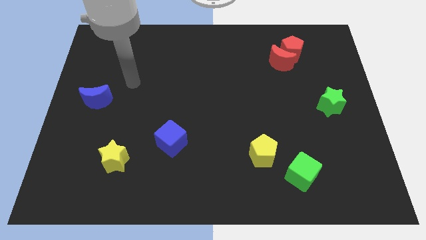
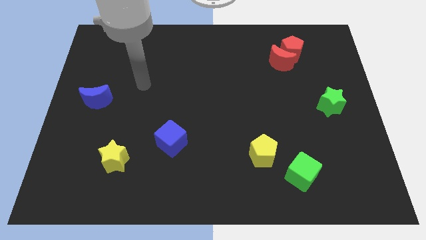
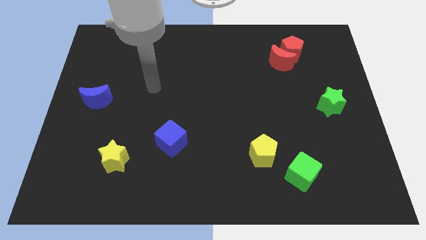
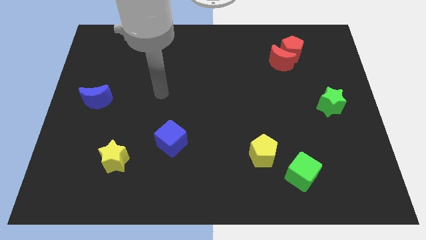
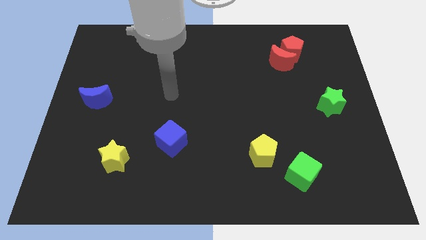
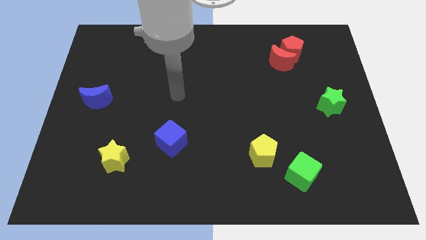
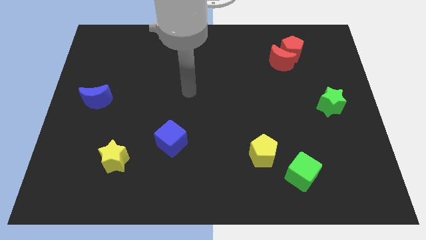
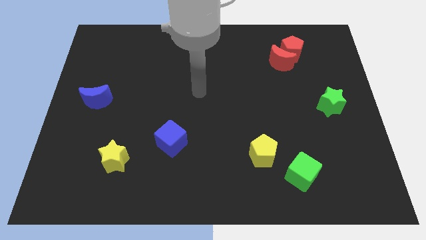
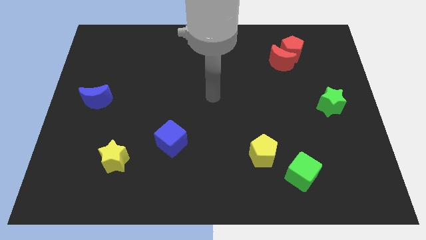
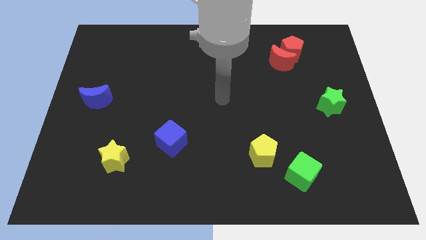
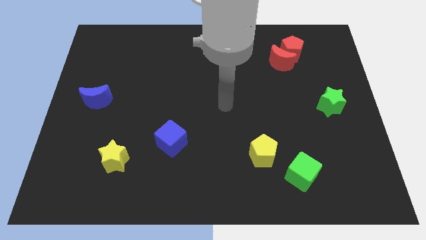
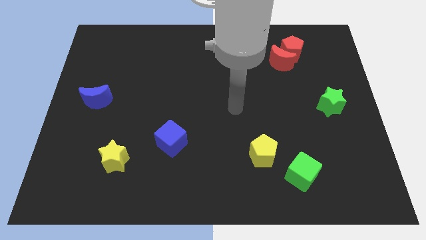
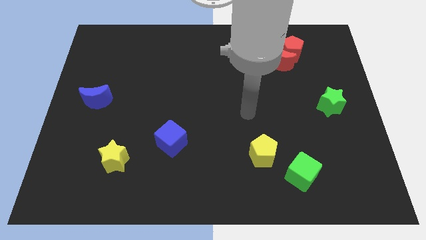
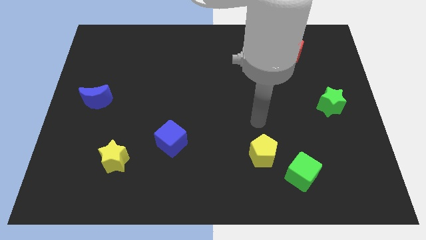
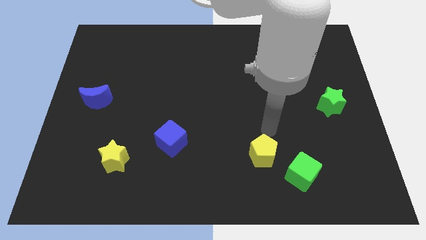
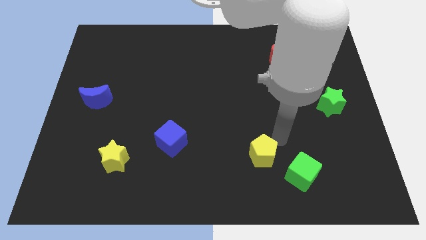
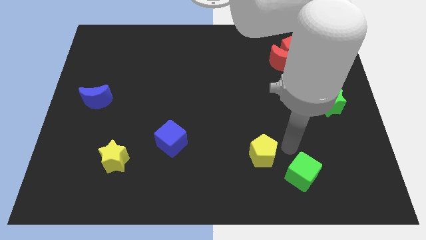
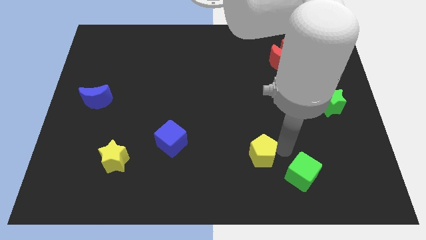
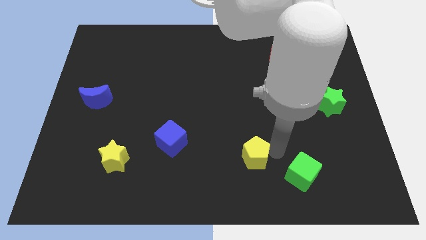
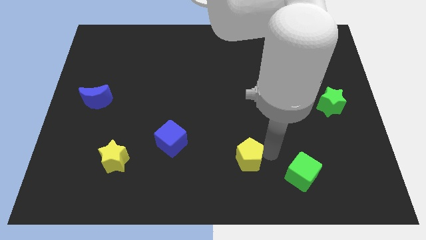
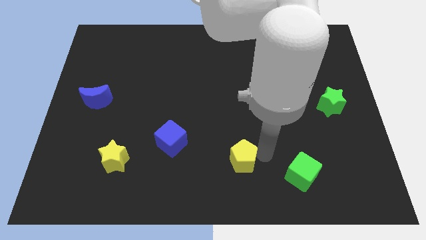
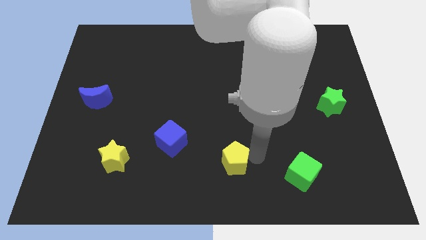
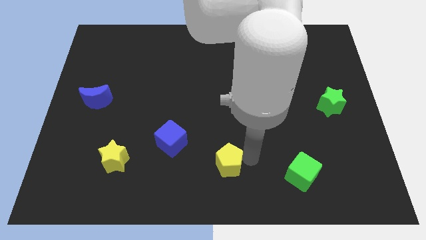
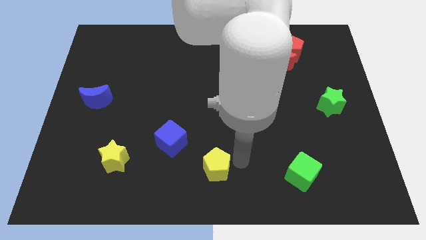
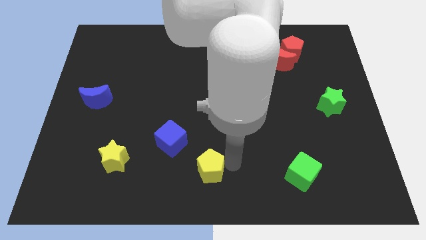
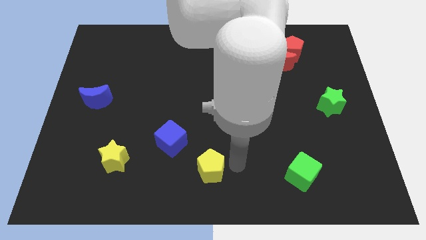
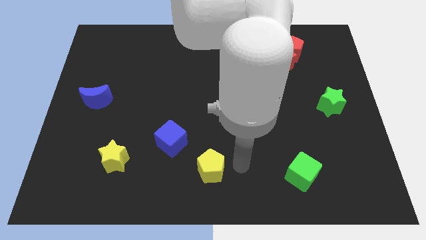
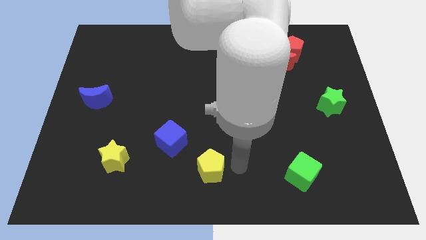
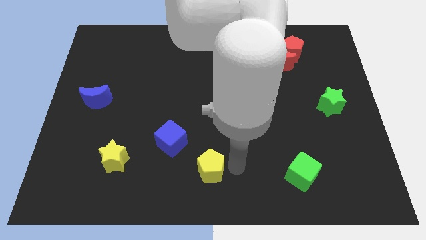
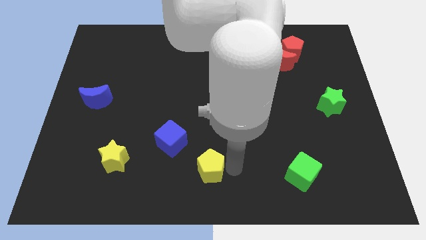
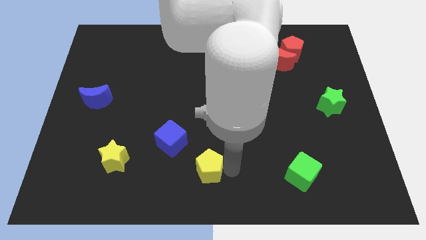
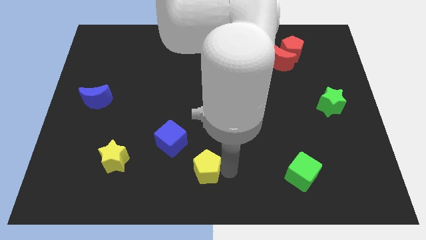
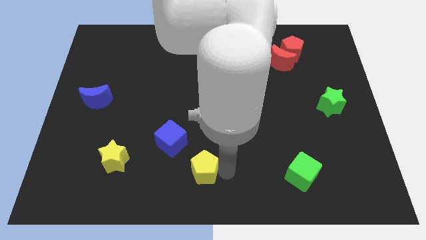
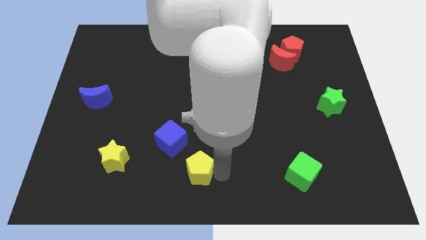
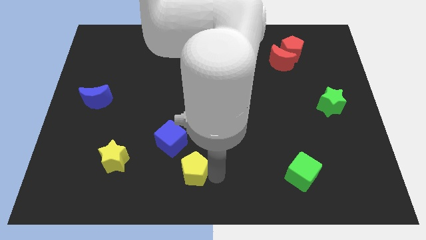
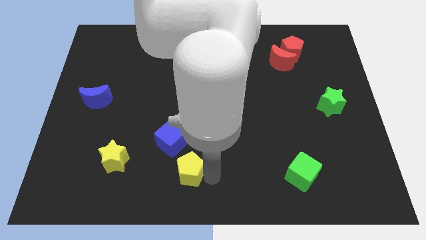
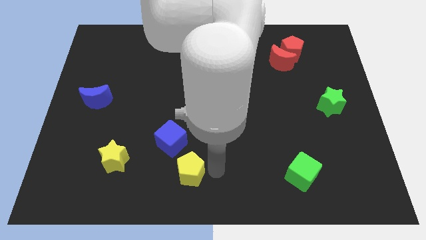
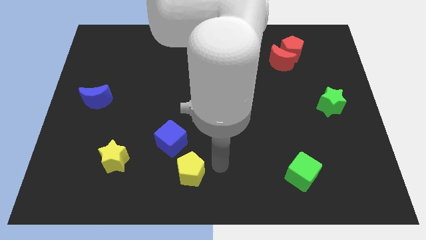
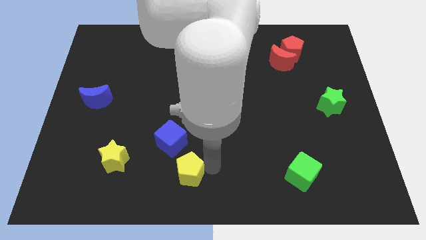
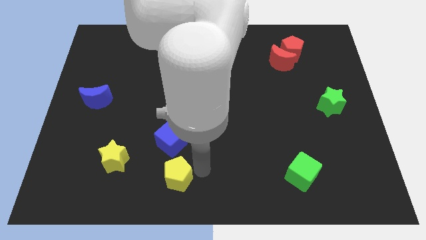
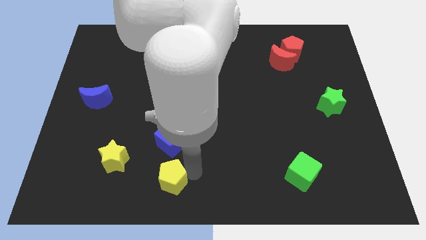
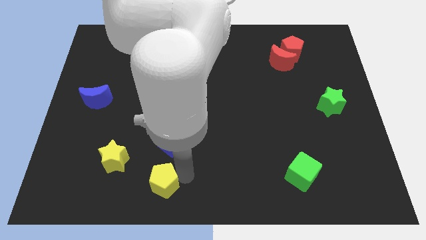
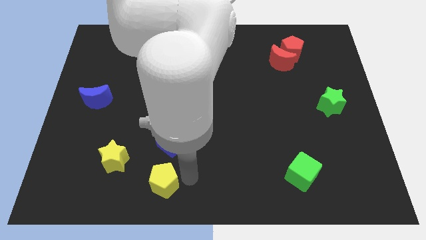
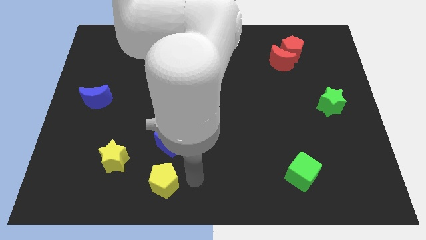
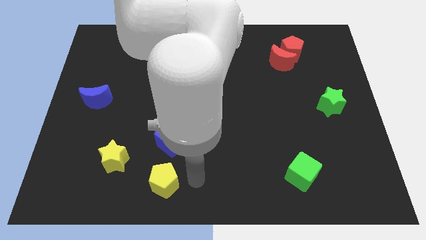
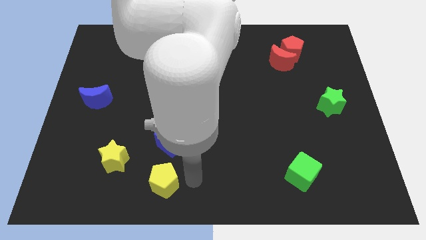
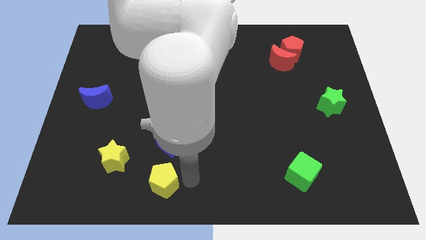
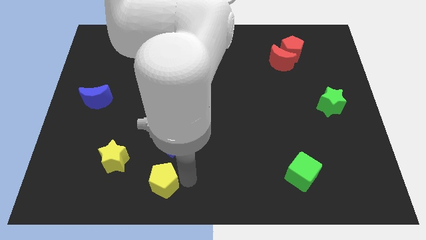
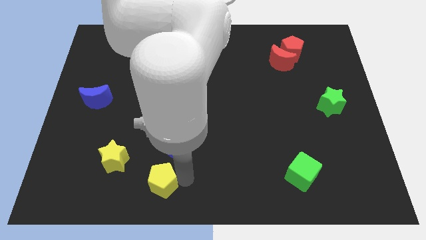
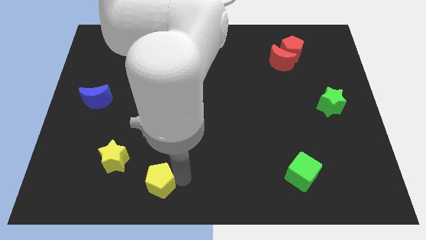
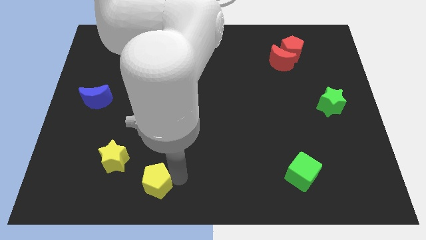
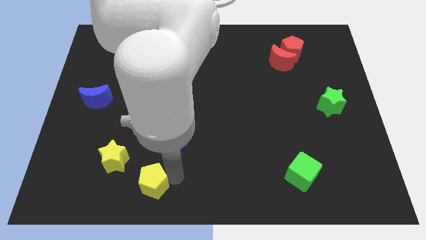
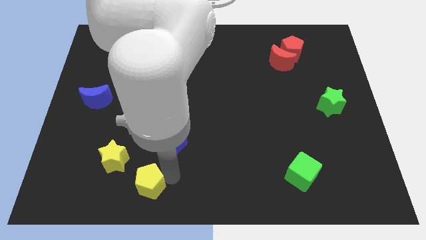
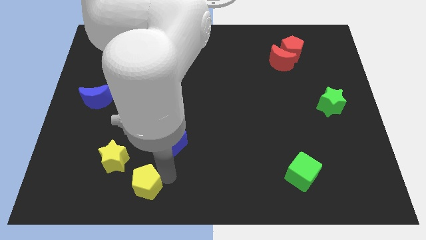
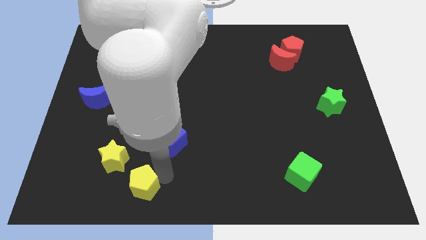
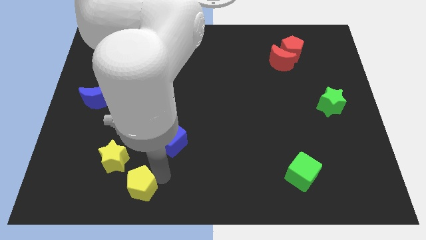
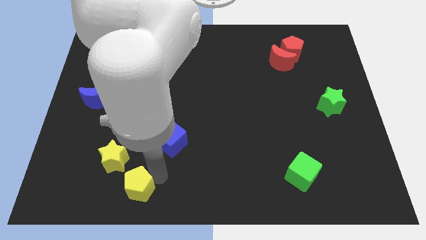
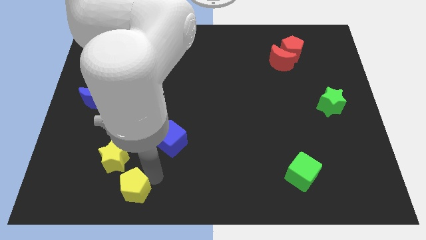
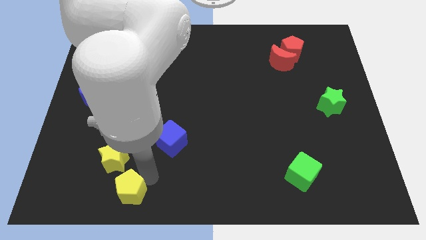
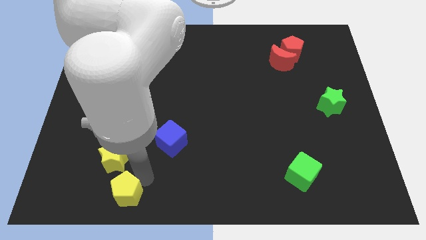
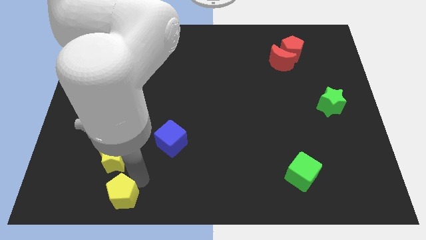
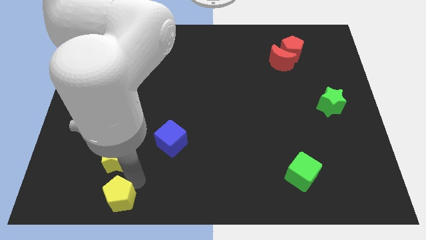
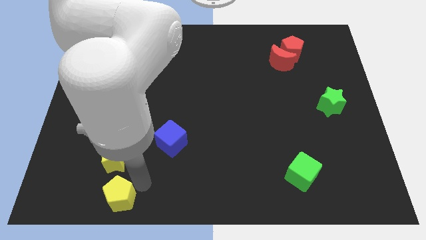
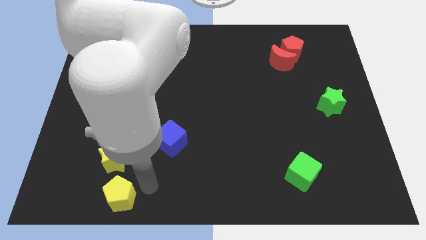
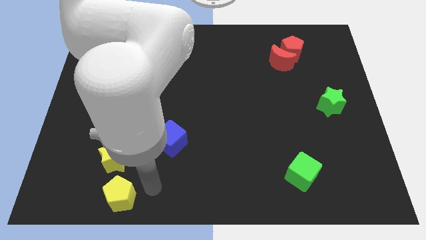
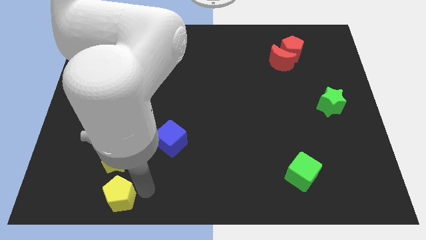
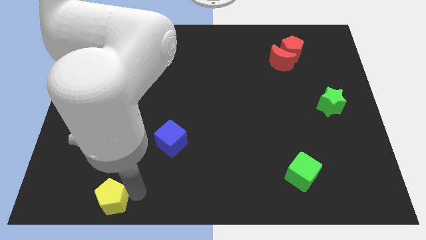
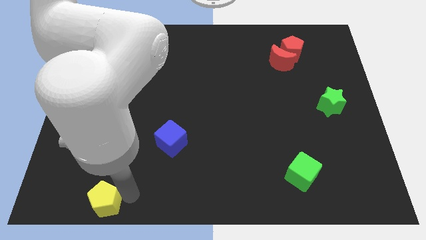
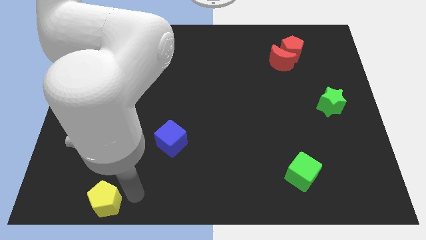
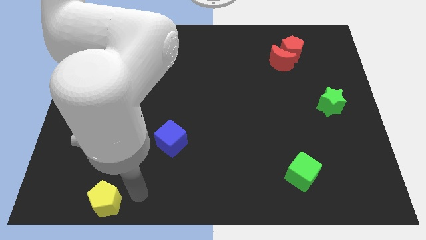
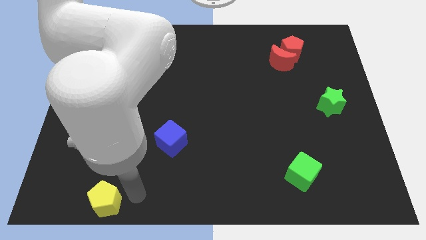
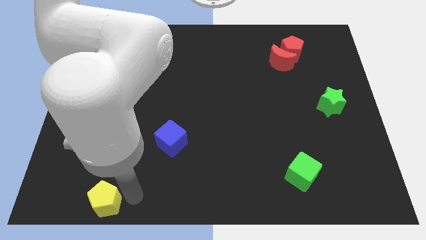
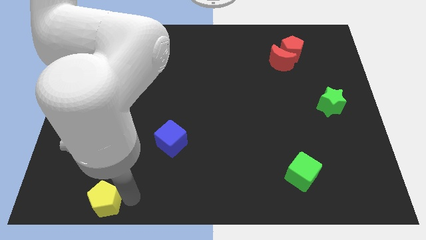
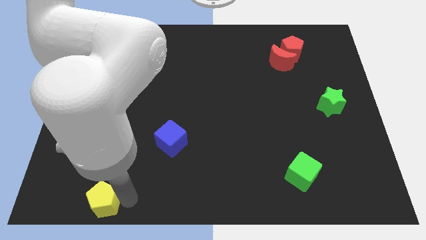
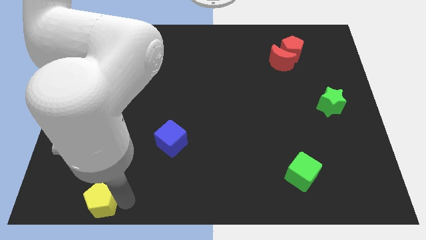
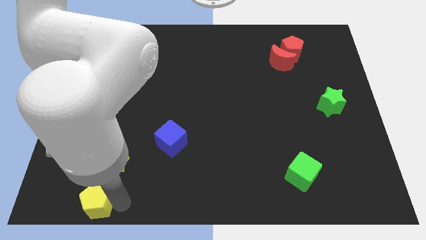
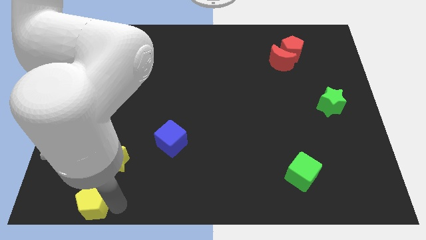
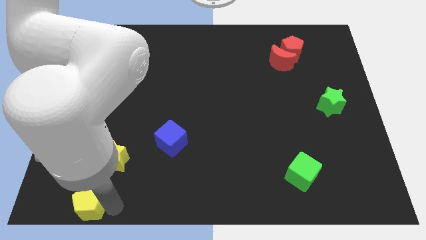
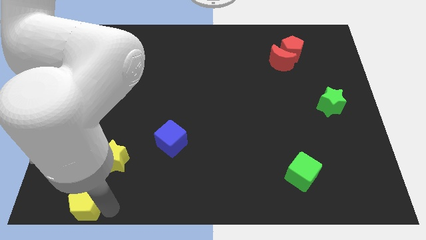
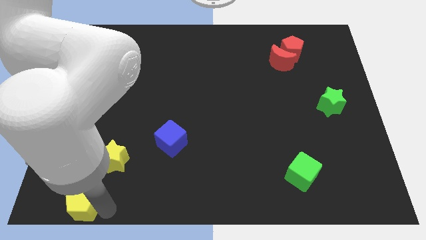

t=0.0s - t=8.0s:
put the yellow pentagon to the lower left corner
